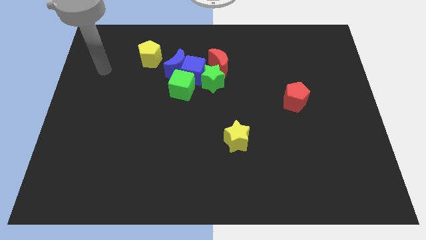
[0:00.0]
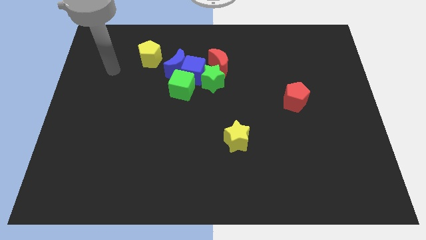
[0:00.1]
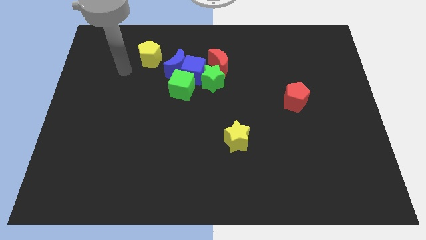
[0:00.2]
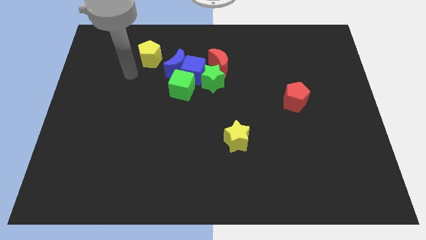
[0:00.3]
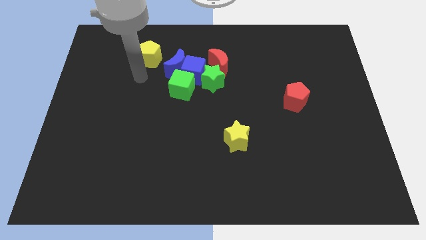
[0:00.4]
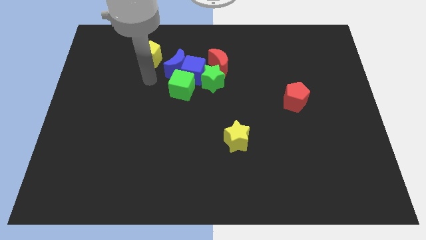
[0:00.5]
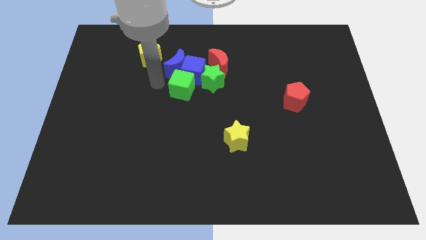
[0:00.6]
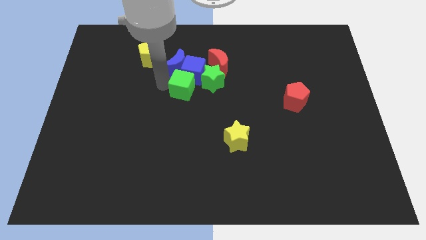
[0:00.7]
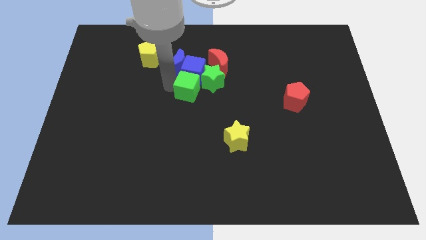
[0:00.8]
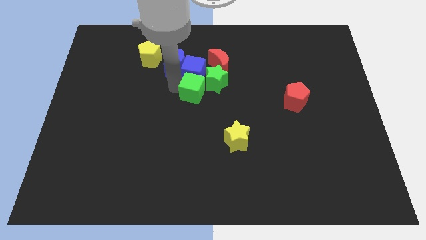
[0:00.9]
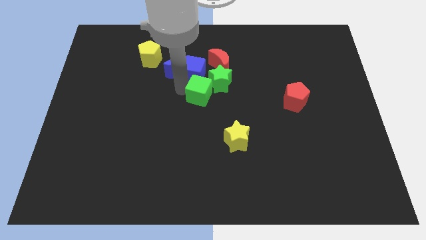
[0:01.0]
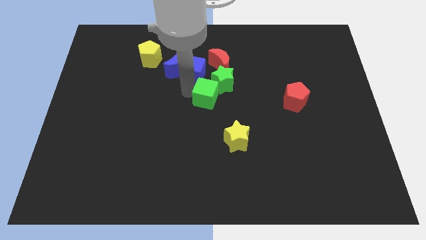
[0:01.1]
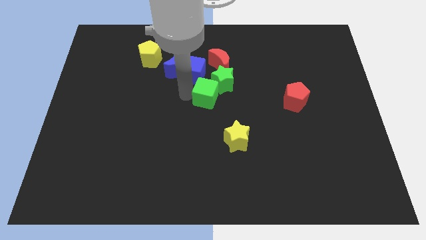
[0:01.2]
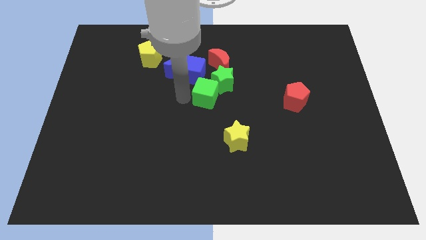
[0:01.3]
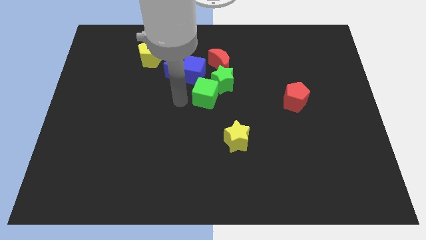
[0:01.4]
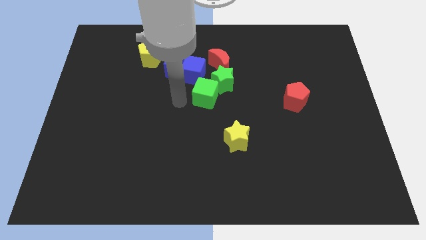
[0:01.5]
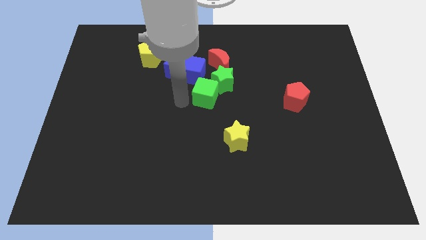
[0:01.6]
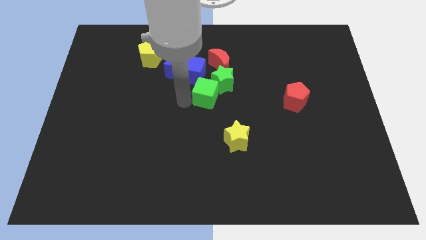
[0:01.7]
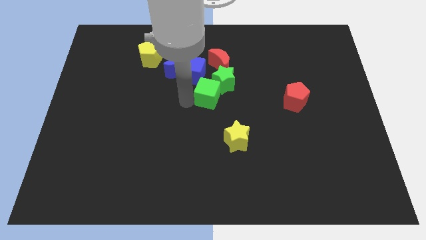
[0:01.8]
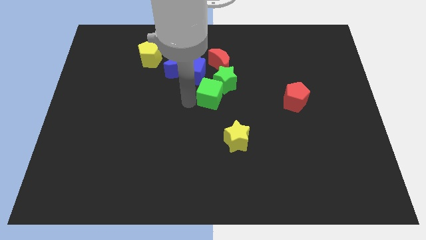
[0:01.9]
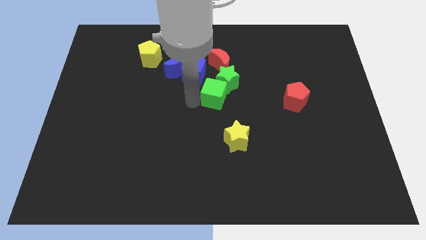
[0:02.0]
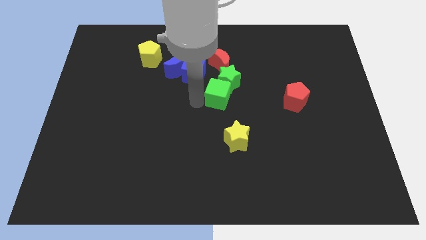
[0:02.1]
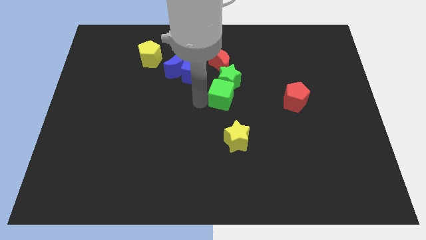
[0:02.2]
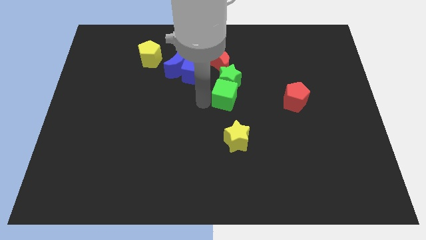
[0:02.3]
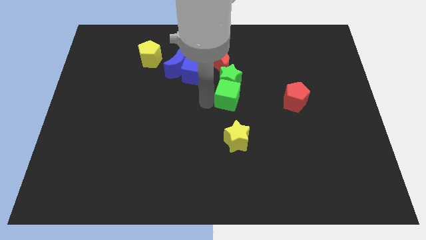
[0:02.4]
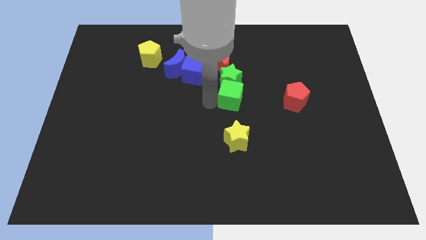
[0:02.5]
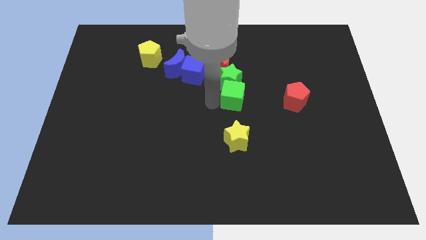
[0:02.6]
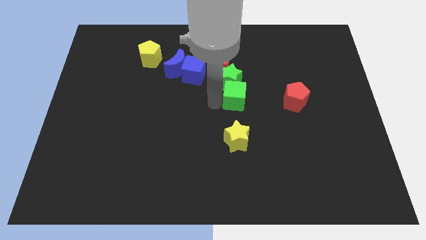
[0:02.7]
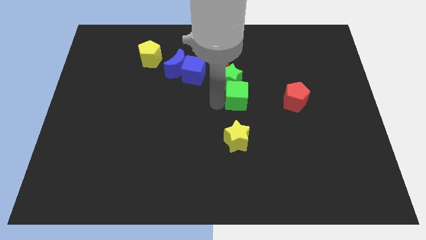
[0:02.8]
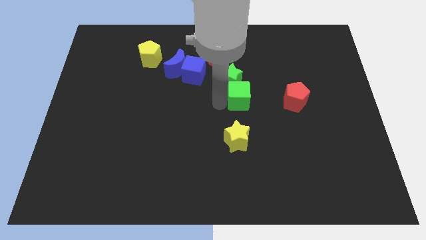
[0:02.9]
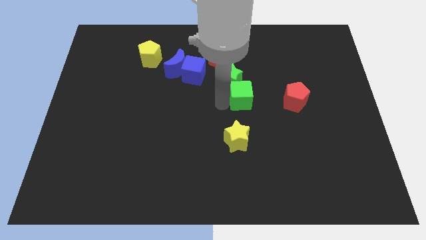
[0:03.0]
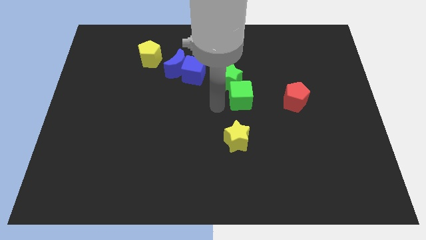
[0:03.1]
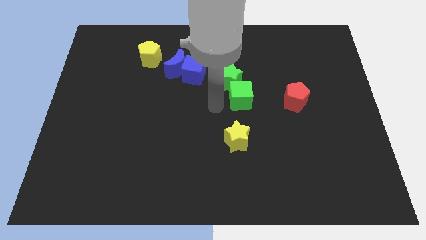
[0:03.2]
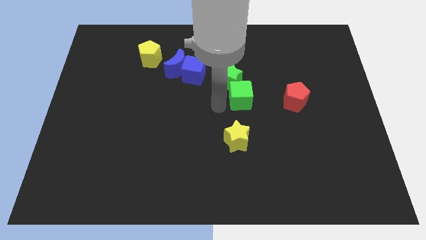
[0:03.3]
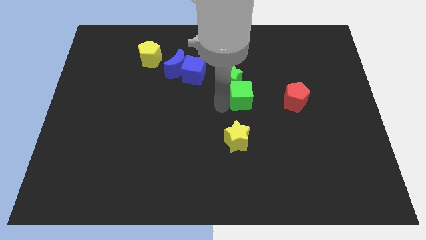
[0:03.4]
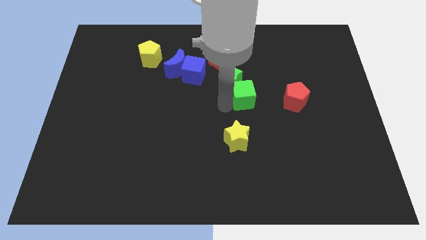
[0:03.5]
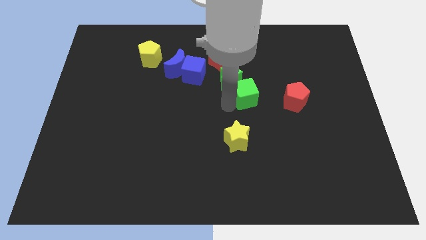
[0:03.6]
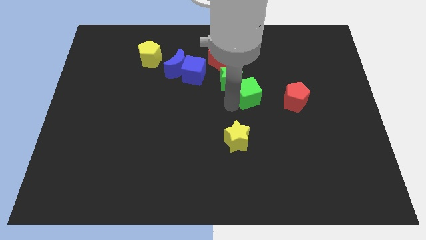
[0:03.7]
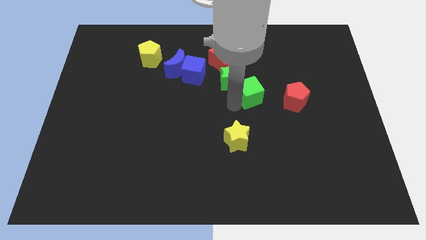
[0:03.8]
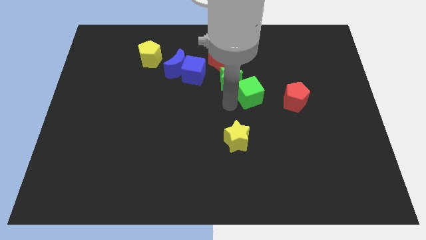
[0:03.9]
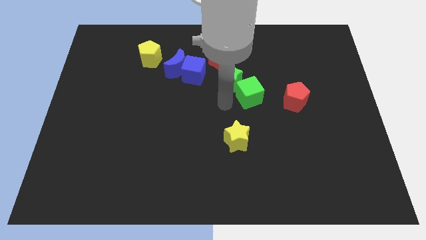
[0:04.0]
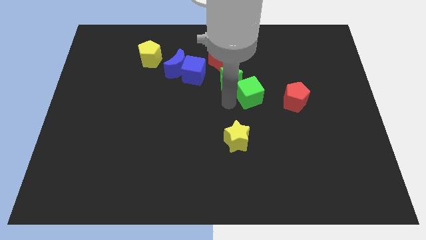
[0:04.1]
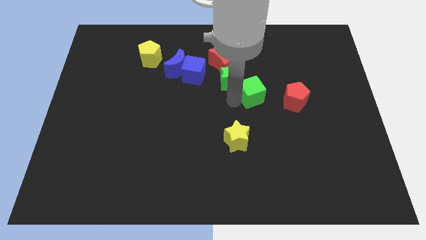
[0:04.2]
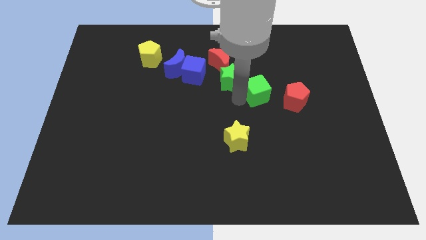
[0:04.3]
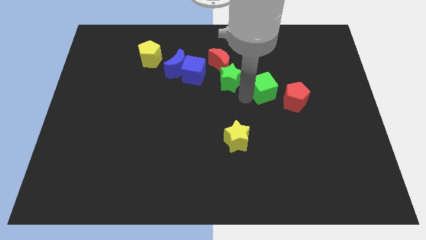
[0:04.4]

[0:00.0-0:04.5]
move the green cube to the right

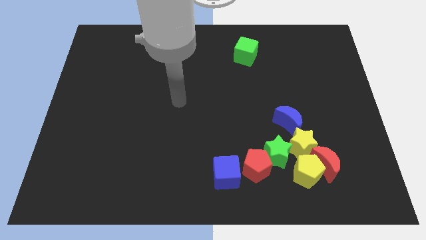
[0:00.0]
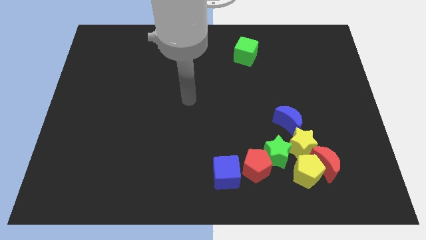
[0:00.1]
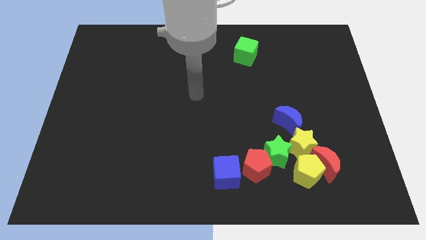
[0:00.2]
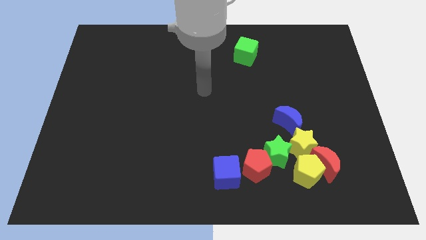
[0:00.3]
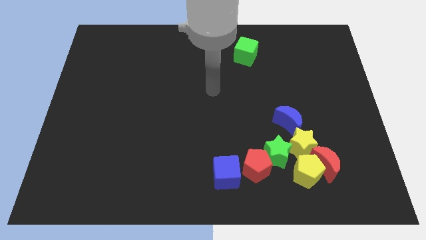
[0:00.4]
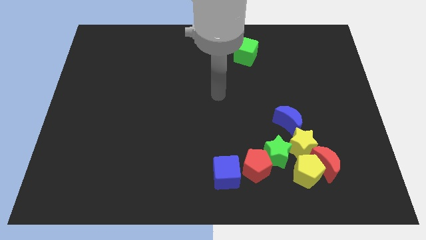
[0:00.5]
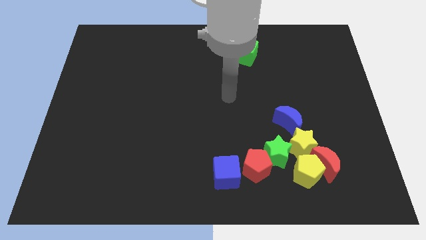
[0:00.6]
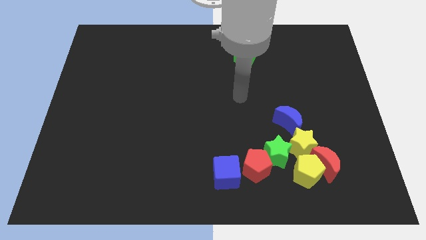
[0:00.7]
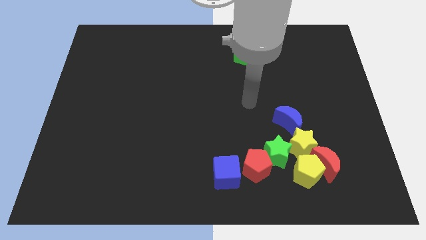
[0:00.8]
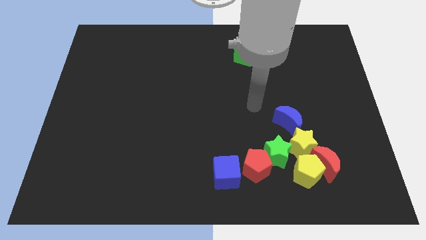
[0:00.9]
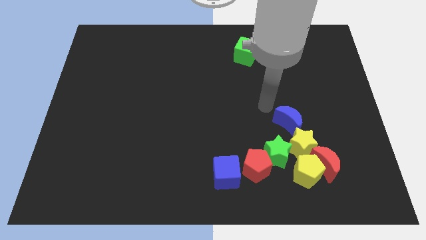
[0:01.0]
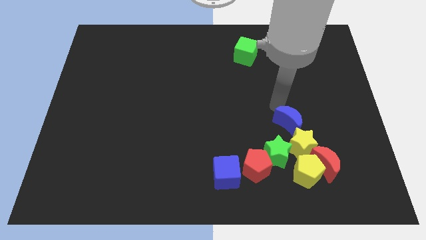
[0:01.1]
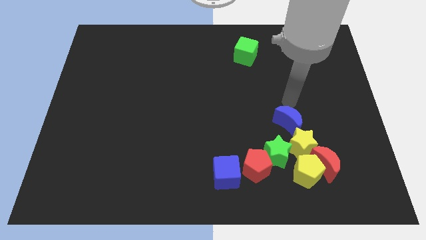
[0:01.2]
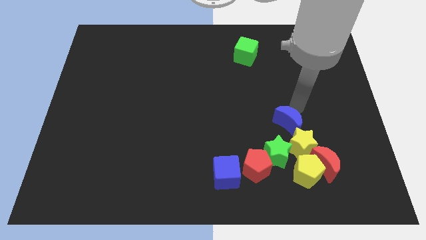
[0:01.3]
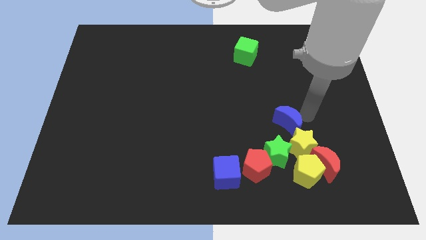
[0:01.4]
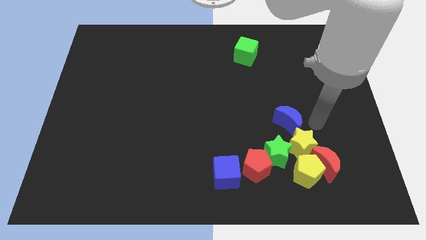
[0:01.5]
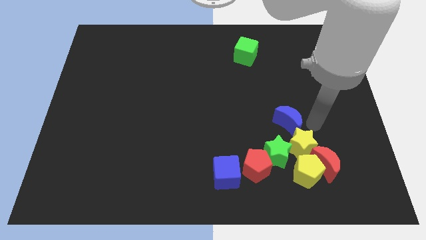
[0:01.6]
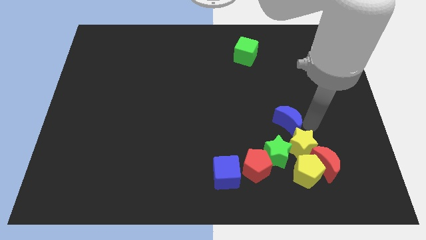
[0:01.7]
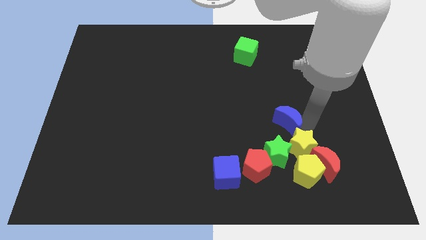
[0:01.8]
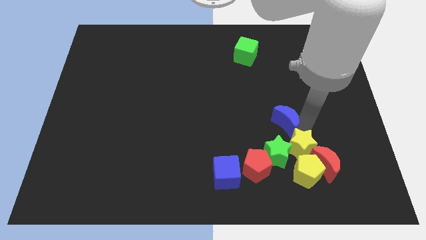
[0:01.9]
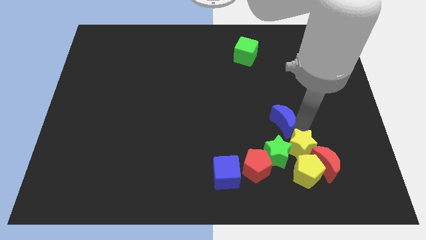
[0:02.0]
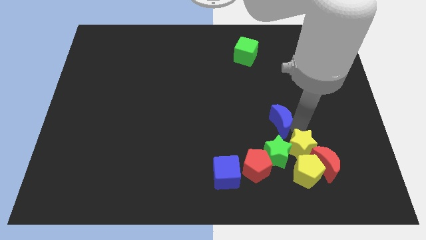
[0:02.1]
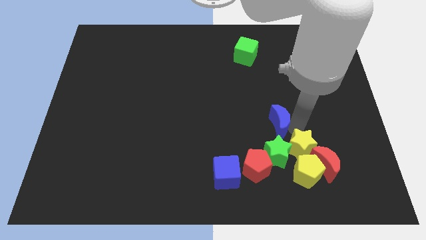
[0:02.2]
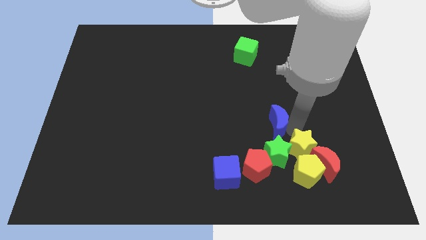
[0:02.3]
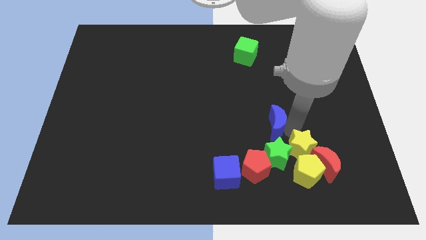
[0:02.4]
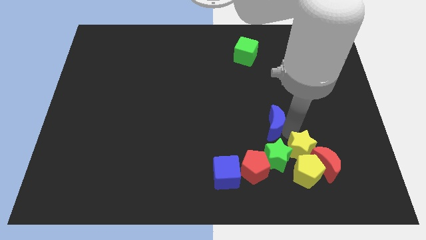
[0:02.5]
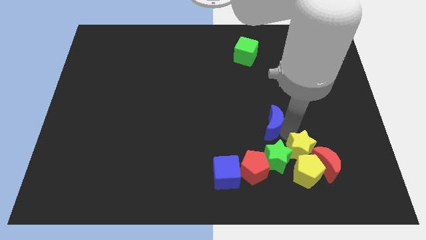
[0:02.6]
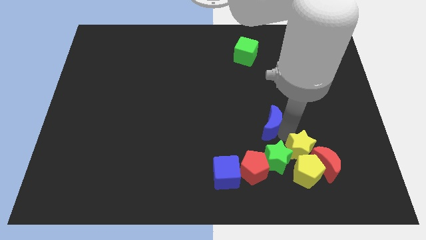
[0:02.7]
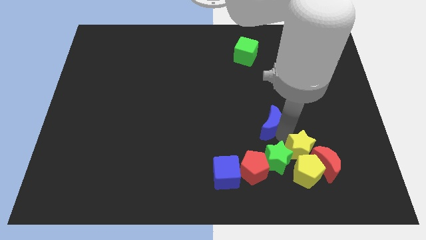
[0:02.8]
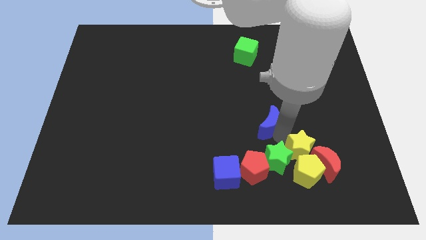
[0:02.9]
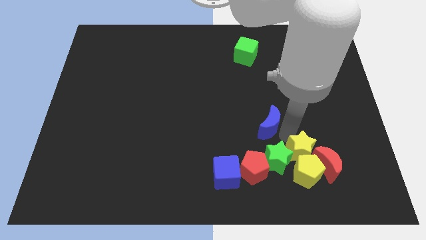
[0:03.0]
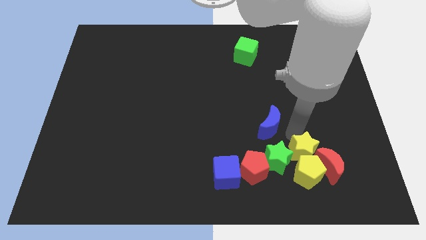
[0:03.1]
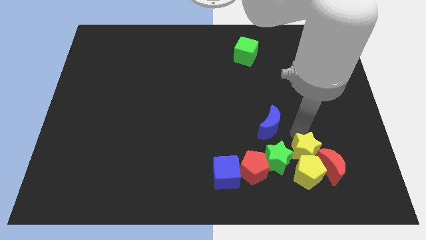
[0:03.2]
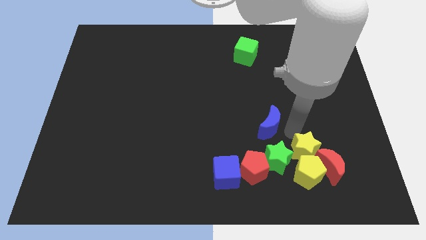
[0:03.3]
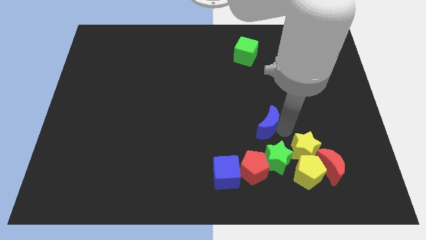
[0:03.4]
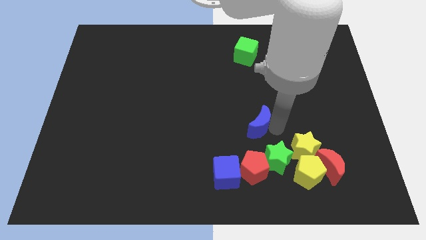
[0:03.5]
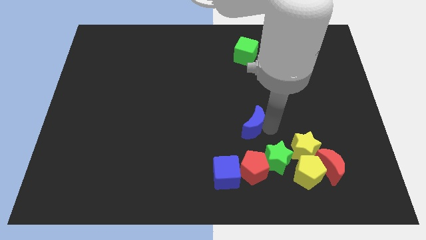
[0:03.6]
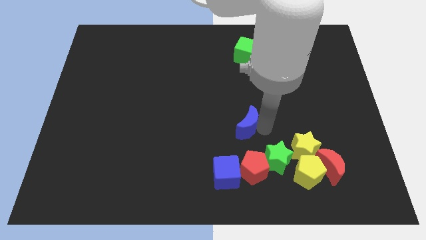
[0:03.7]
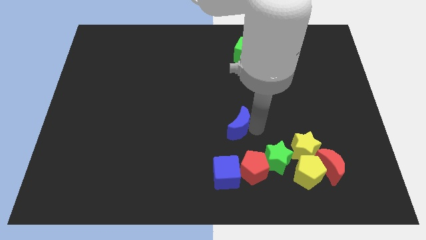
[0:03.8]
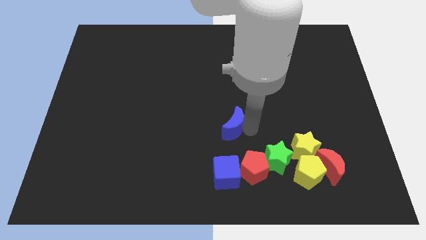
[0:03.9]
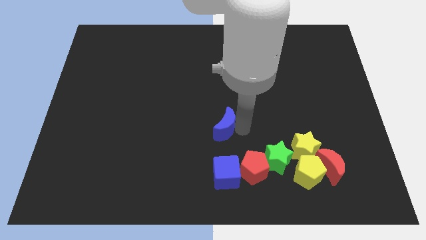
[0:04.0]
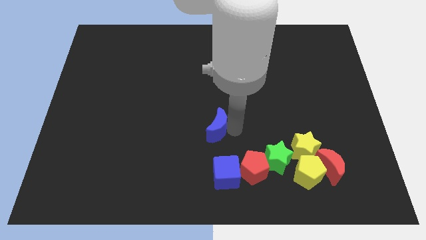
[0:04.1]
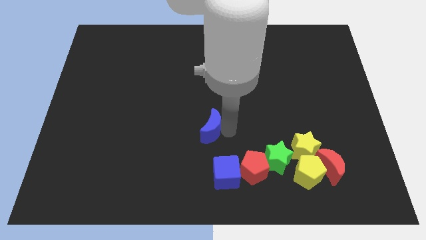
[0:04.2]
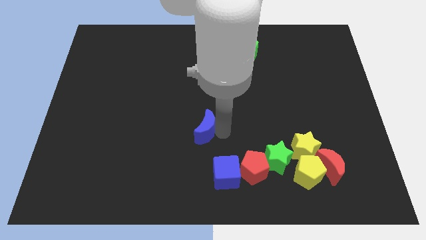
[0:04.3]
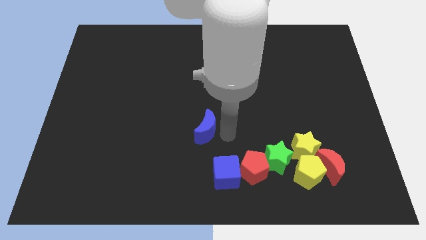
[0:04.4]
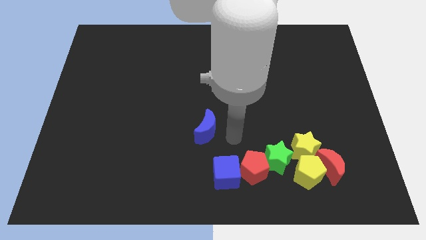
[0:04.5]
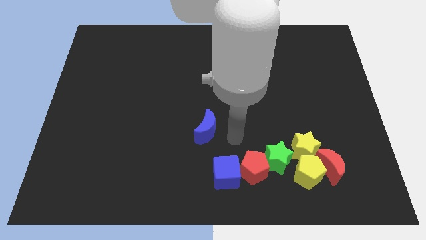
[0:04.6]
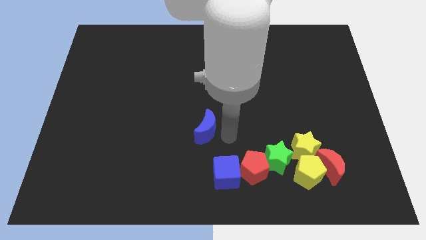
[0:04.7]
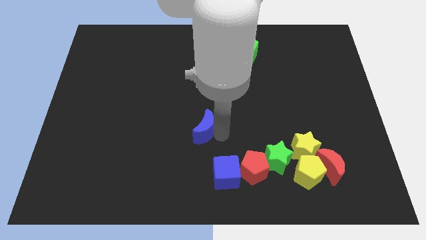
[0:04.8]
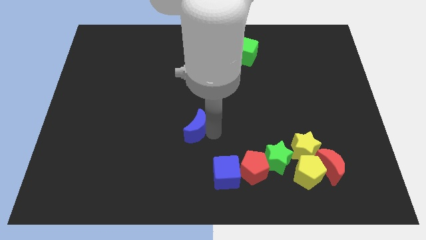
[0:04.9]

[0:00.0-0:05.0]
push the blue moon left
